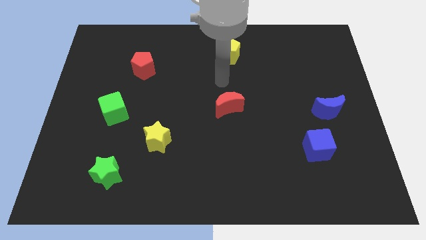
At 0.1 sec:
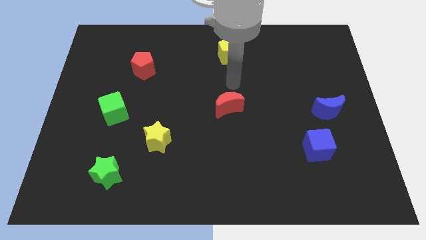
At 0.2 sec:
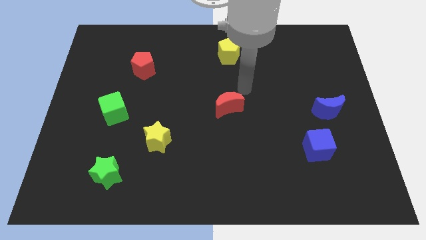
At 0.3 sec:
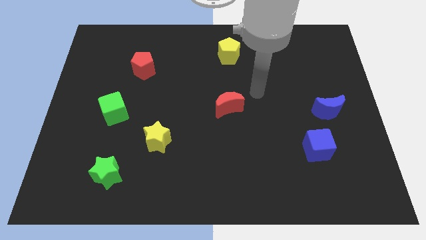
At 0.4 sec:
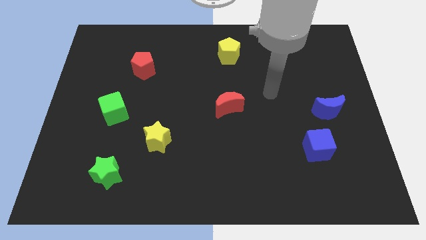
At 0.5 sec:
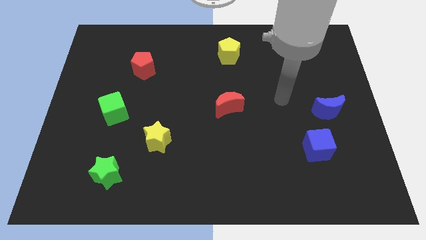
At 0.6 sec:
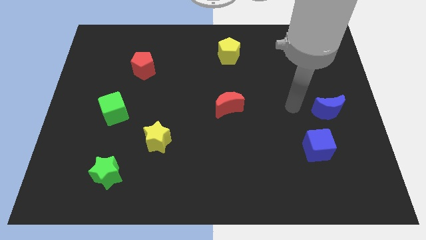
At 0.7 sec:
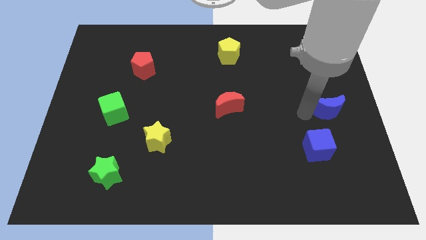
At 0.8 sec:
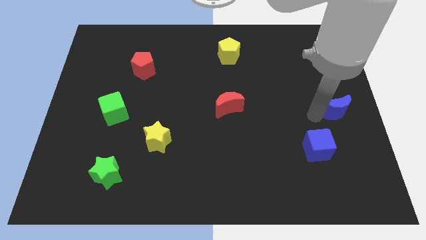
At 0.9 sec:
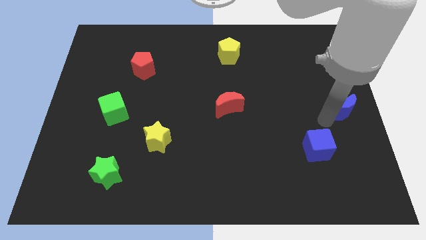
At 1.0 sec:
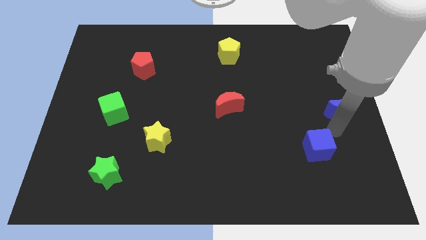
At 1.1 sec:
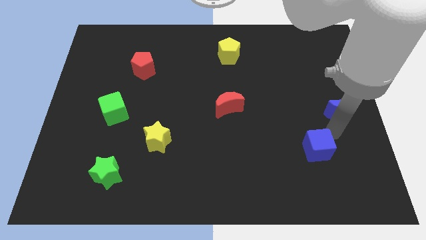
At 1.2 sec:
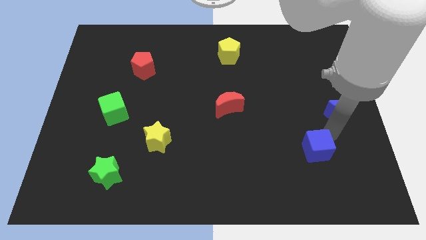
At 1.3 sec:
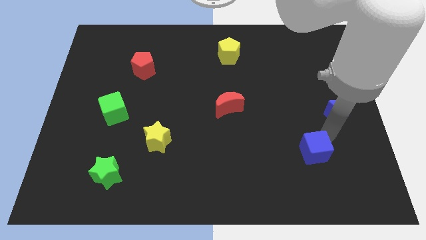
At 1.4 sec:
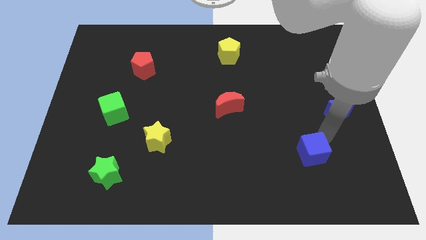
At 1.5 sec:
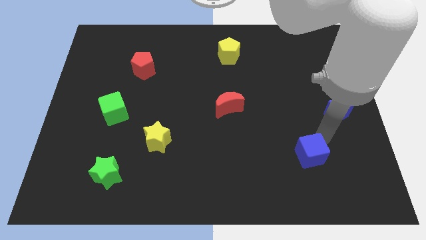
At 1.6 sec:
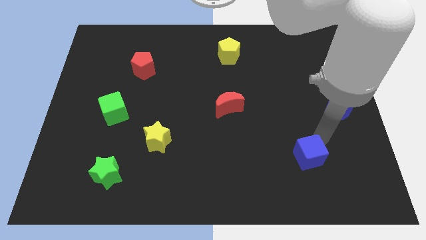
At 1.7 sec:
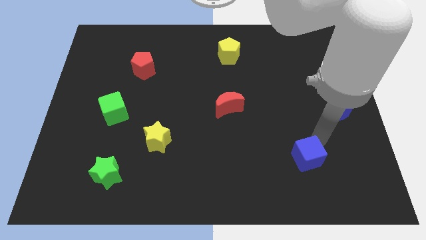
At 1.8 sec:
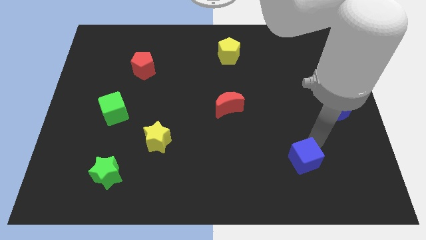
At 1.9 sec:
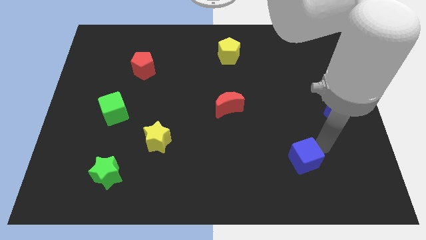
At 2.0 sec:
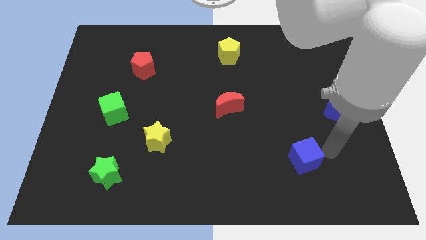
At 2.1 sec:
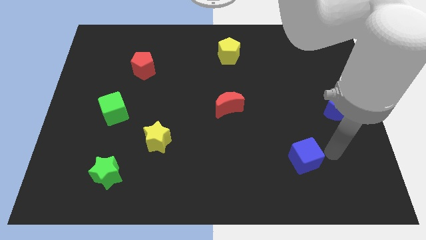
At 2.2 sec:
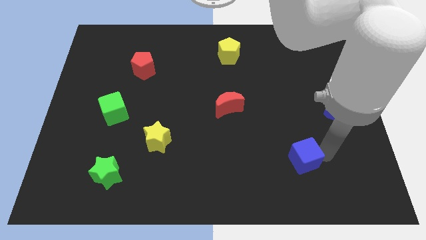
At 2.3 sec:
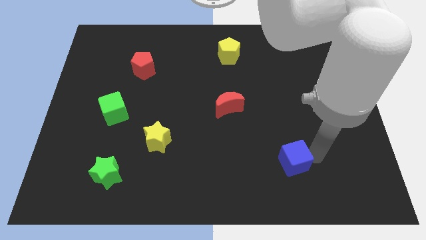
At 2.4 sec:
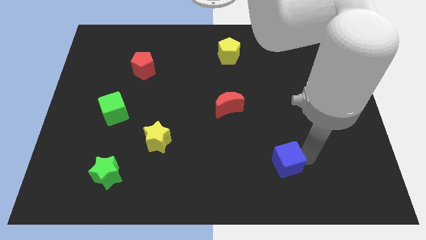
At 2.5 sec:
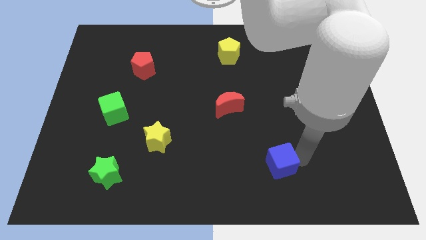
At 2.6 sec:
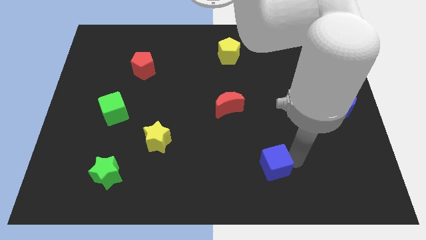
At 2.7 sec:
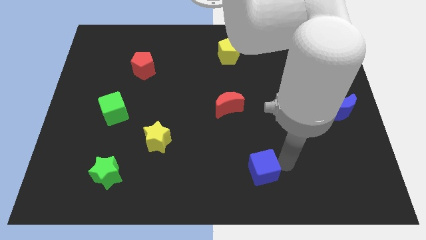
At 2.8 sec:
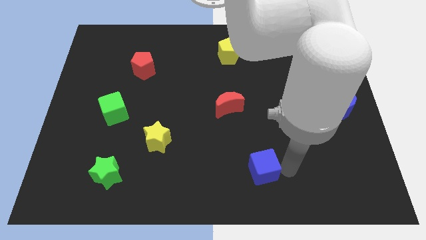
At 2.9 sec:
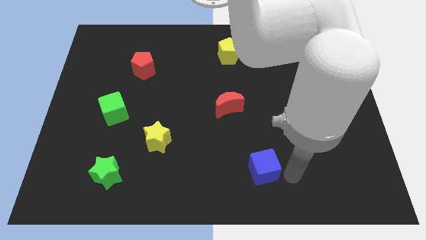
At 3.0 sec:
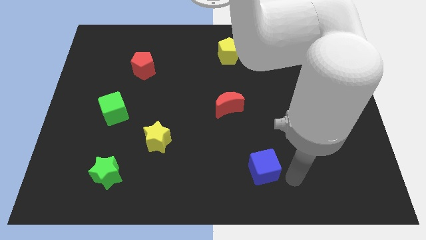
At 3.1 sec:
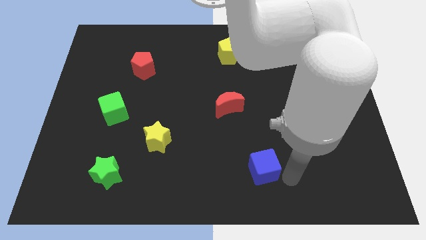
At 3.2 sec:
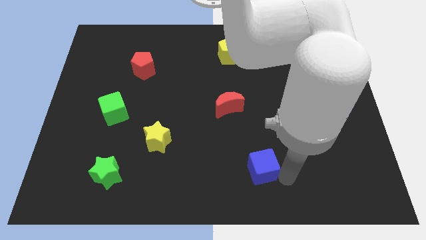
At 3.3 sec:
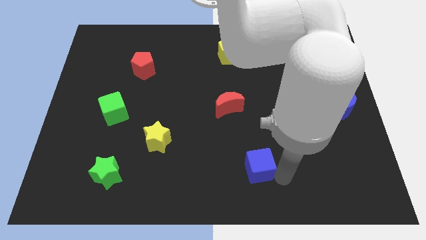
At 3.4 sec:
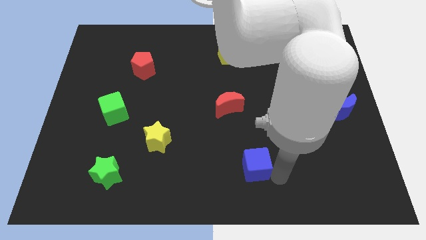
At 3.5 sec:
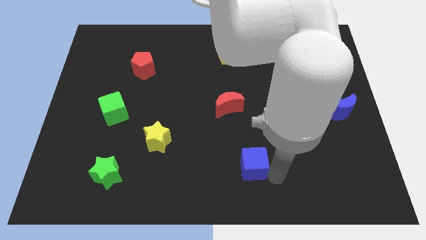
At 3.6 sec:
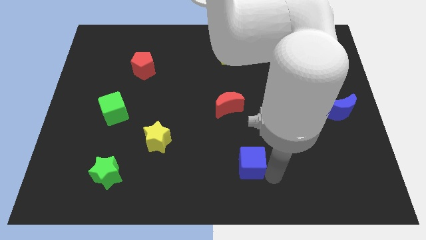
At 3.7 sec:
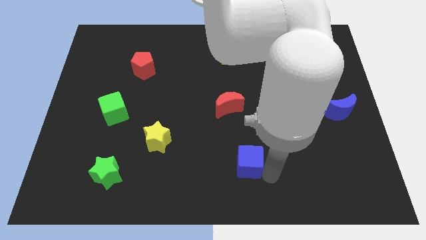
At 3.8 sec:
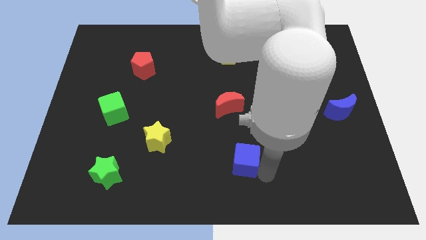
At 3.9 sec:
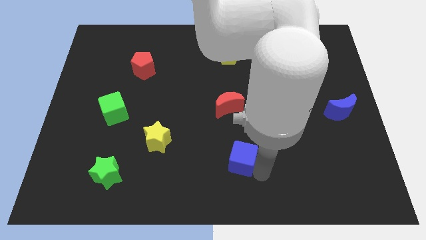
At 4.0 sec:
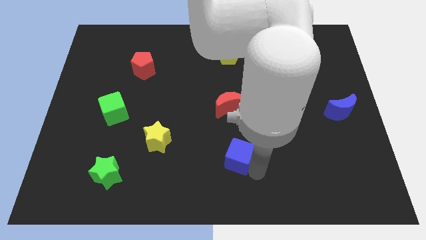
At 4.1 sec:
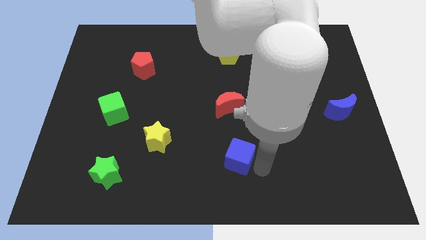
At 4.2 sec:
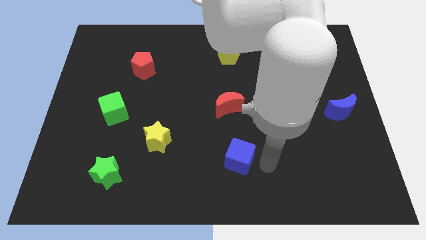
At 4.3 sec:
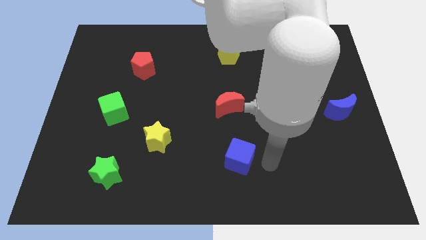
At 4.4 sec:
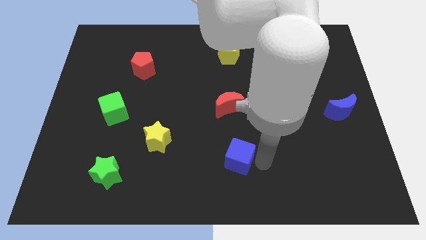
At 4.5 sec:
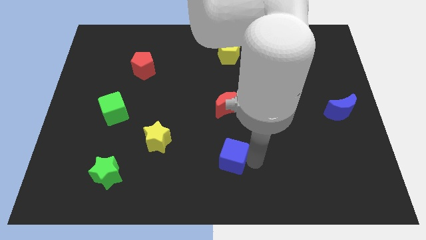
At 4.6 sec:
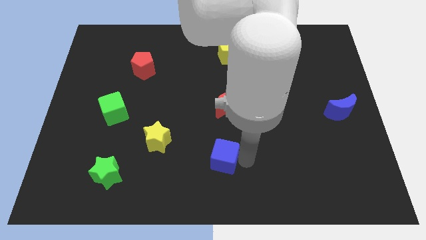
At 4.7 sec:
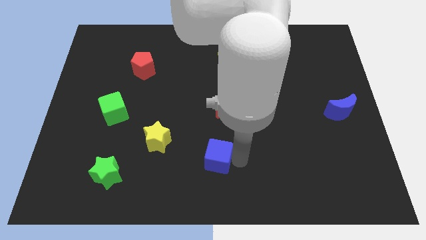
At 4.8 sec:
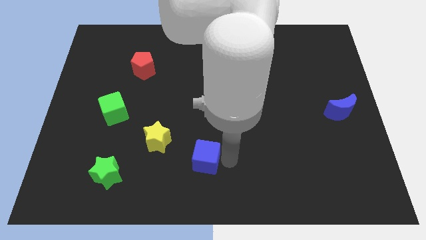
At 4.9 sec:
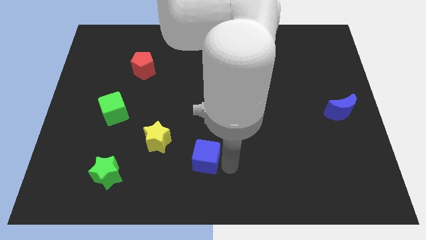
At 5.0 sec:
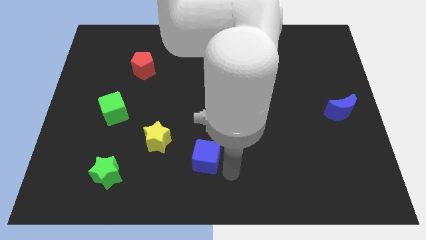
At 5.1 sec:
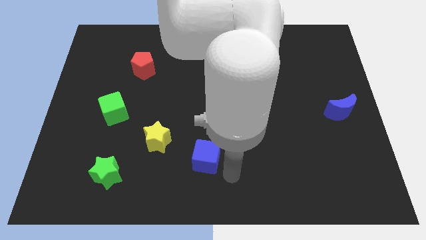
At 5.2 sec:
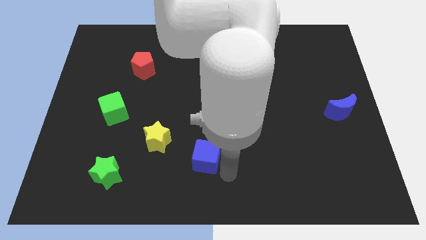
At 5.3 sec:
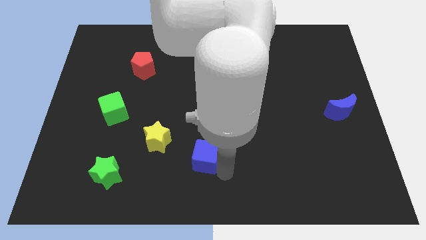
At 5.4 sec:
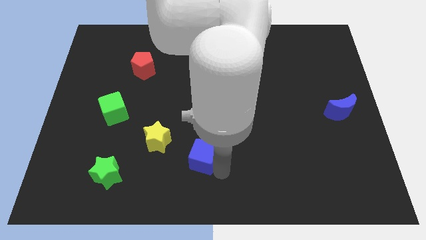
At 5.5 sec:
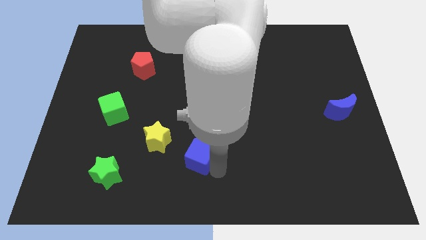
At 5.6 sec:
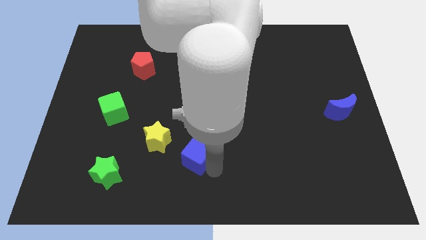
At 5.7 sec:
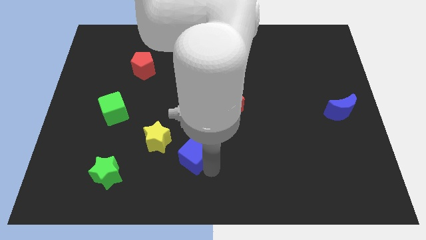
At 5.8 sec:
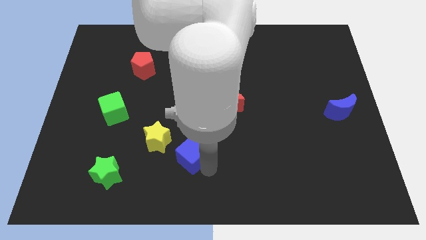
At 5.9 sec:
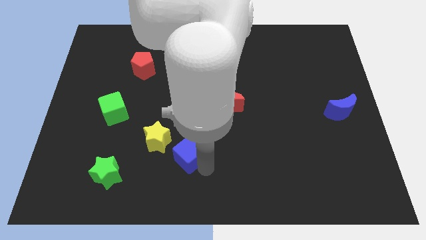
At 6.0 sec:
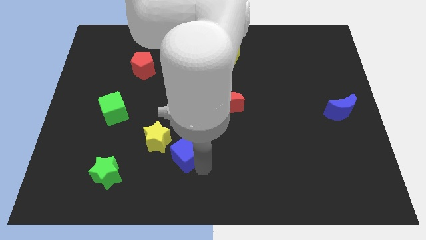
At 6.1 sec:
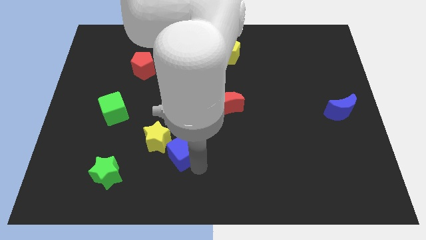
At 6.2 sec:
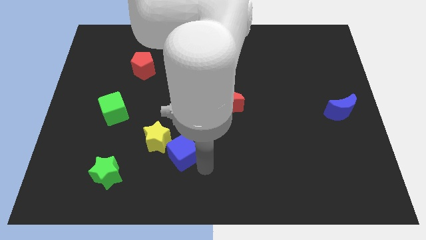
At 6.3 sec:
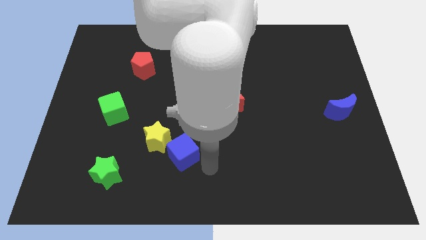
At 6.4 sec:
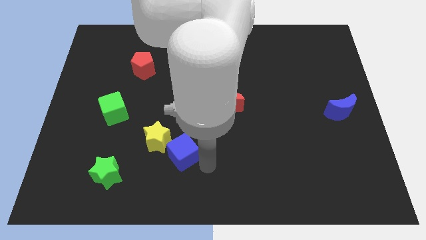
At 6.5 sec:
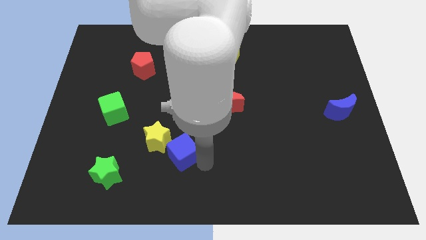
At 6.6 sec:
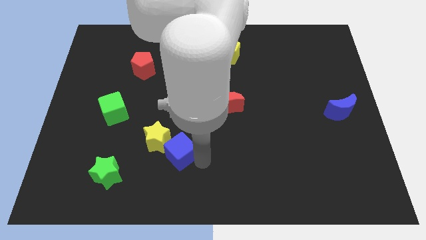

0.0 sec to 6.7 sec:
push the blue cube next to the yellow star

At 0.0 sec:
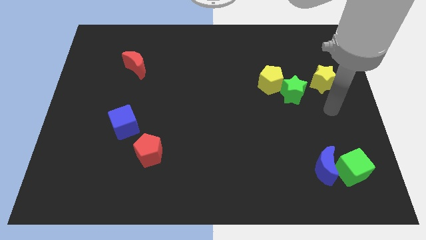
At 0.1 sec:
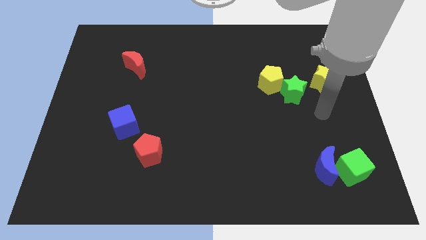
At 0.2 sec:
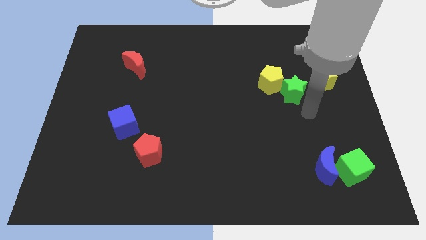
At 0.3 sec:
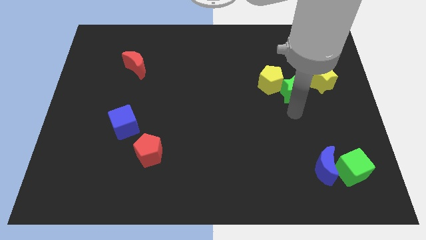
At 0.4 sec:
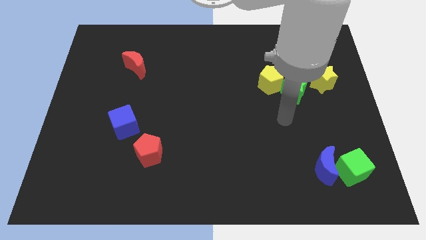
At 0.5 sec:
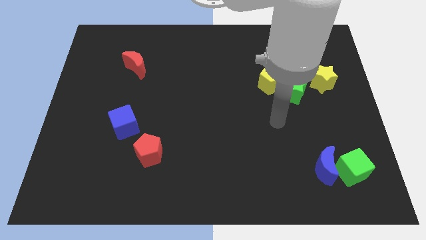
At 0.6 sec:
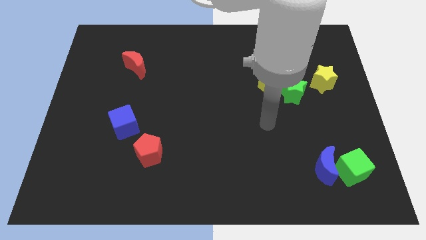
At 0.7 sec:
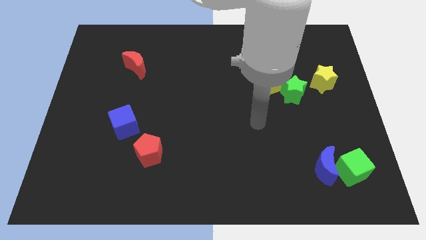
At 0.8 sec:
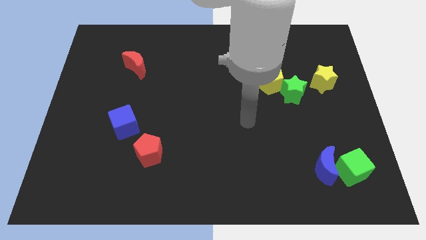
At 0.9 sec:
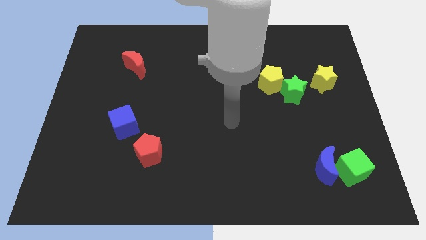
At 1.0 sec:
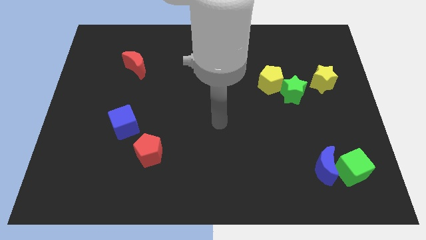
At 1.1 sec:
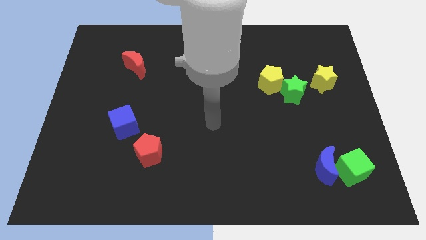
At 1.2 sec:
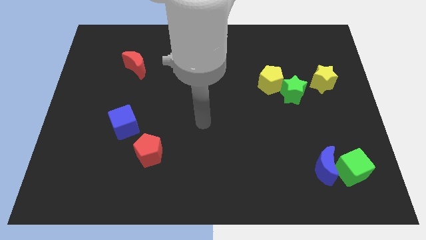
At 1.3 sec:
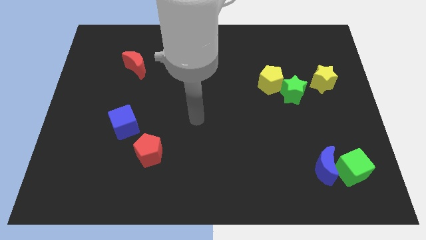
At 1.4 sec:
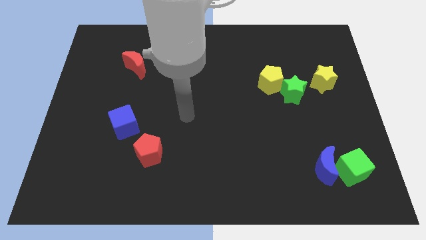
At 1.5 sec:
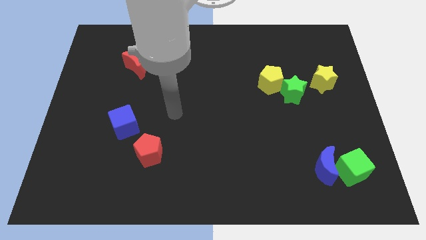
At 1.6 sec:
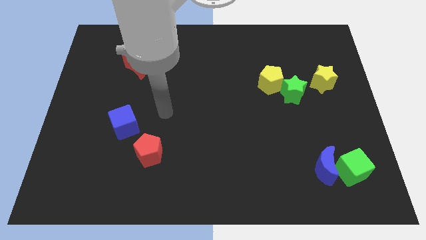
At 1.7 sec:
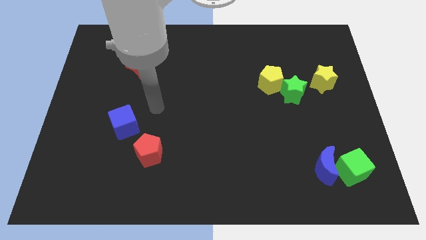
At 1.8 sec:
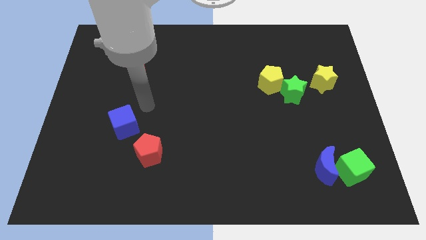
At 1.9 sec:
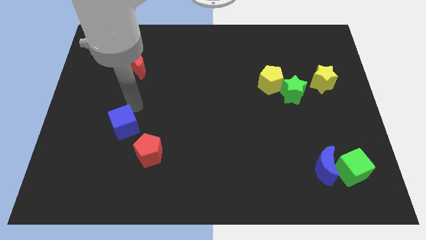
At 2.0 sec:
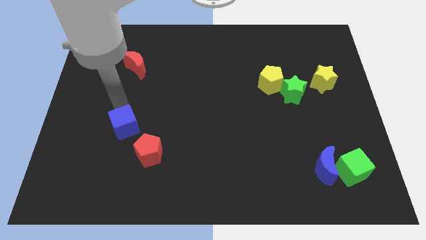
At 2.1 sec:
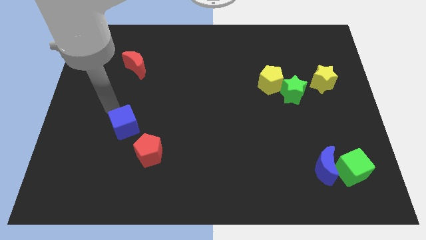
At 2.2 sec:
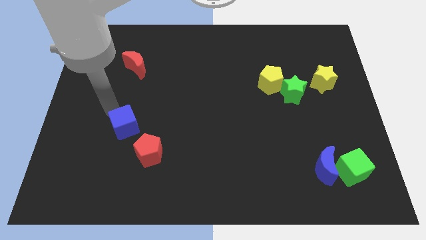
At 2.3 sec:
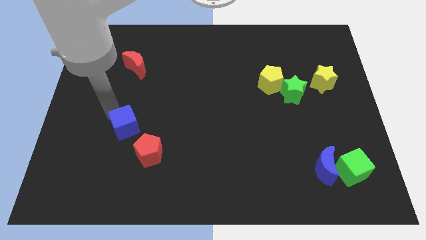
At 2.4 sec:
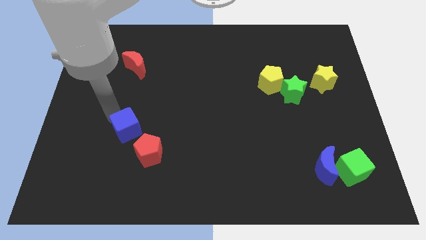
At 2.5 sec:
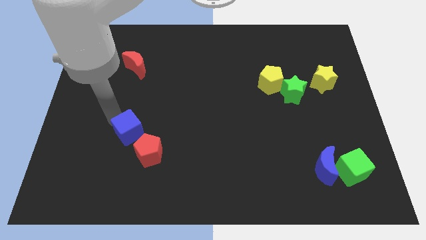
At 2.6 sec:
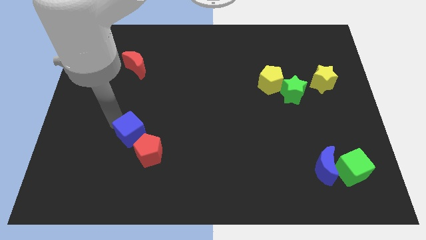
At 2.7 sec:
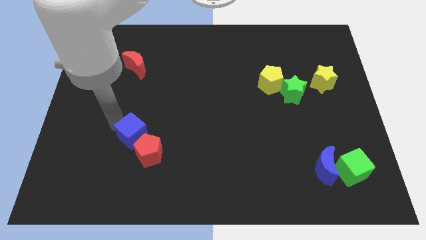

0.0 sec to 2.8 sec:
slide the blue cube to the red pentagon
